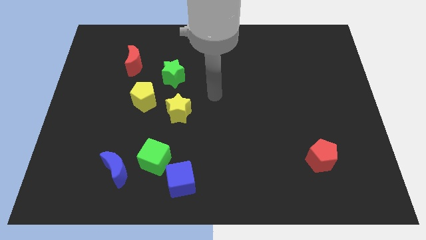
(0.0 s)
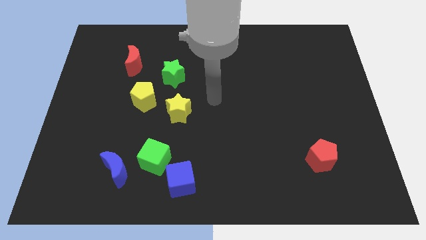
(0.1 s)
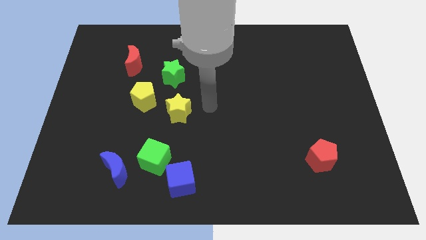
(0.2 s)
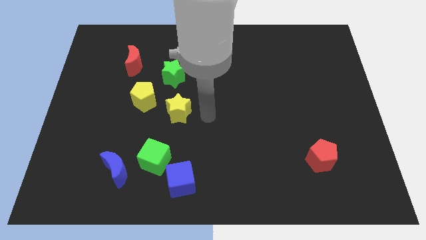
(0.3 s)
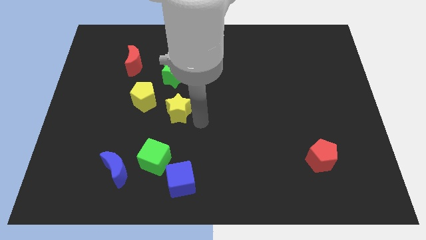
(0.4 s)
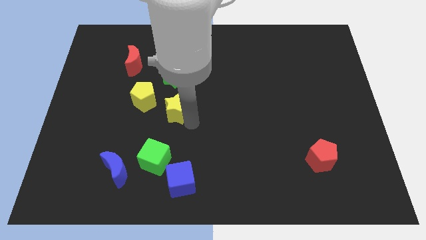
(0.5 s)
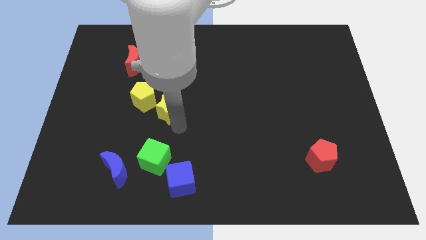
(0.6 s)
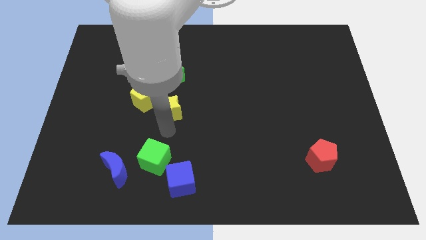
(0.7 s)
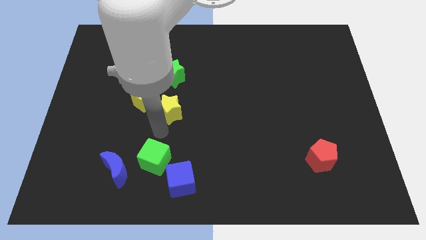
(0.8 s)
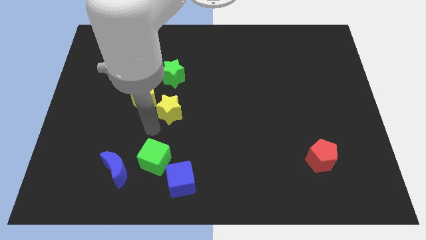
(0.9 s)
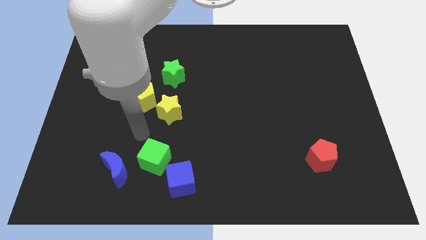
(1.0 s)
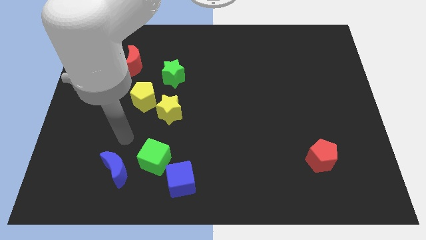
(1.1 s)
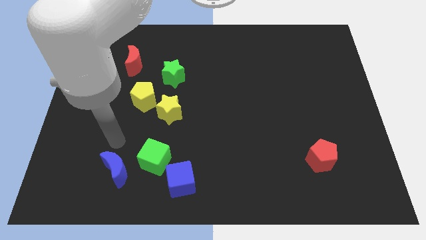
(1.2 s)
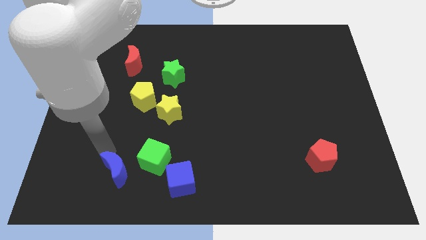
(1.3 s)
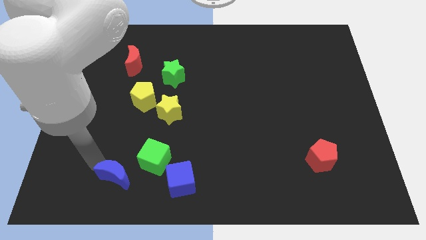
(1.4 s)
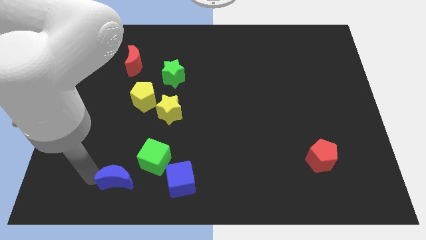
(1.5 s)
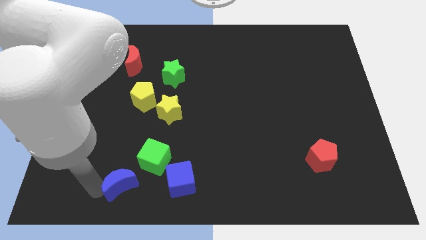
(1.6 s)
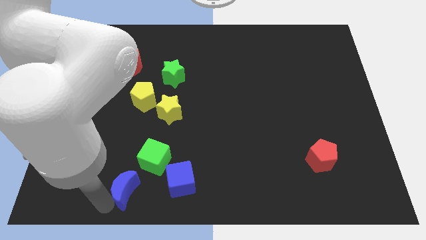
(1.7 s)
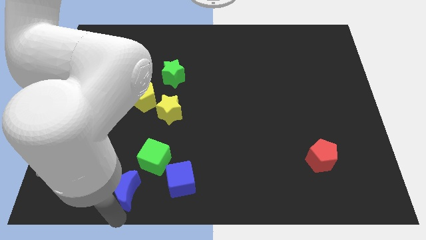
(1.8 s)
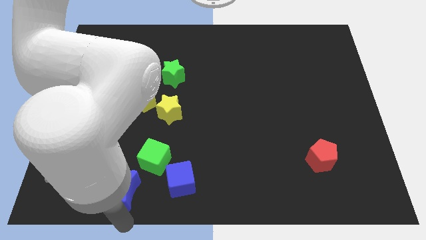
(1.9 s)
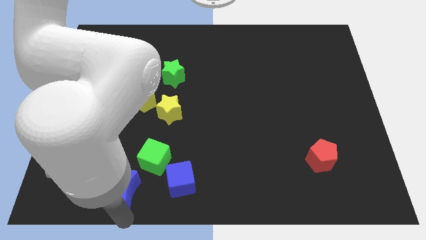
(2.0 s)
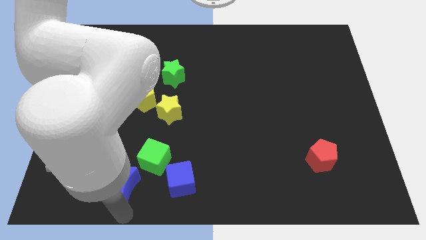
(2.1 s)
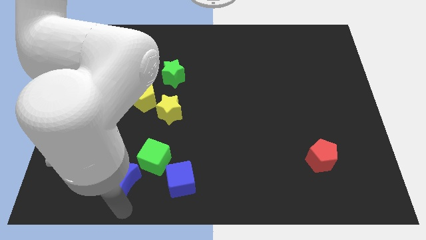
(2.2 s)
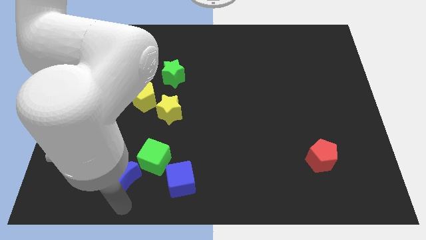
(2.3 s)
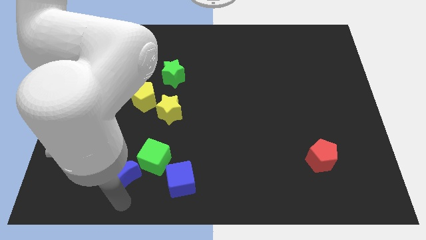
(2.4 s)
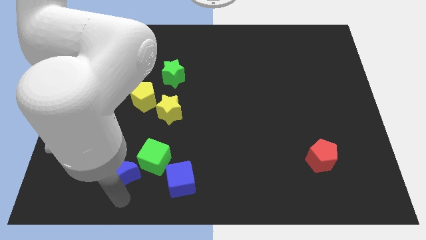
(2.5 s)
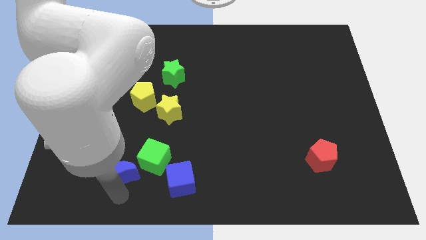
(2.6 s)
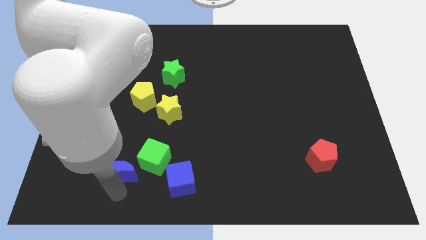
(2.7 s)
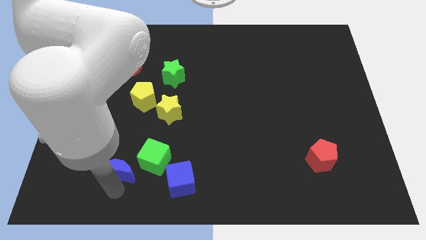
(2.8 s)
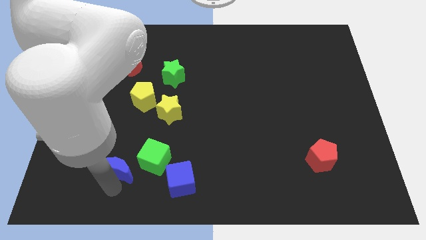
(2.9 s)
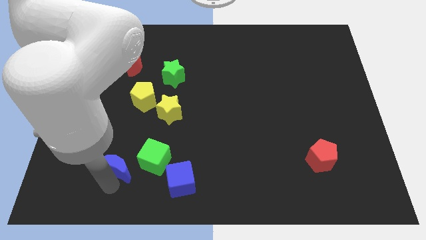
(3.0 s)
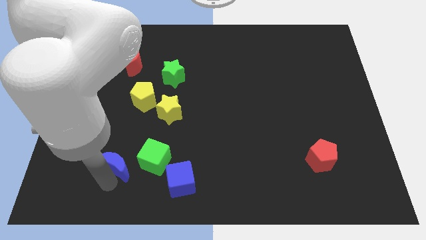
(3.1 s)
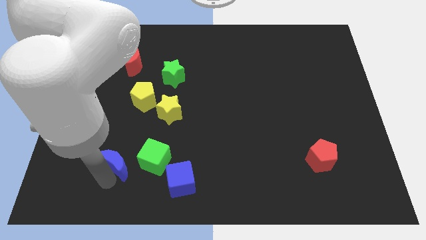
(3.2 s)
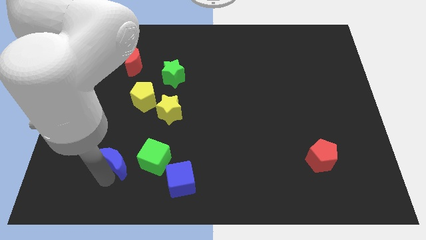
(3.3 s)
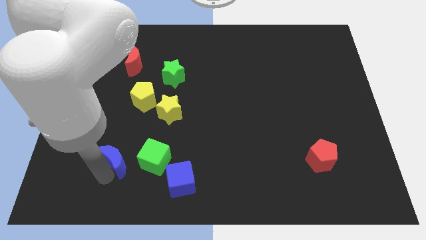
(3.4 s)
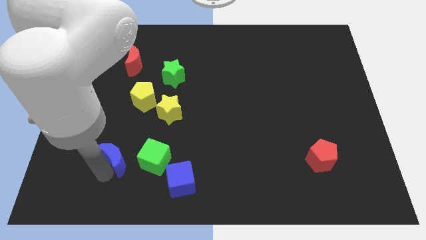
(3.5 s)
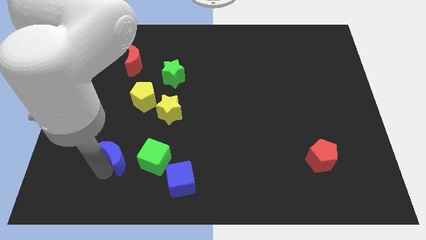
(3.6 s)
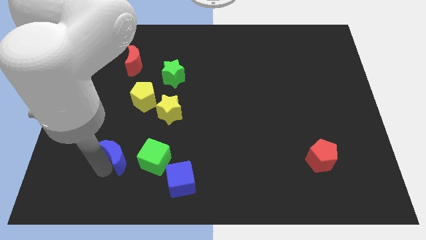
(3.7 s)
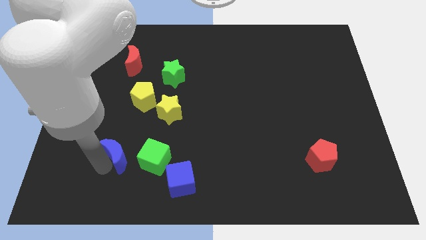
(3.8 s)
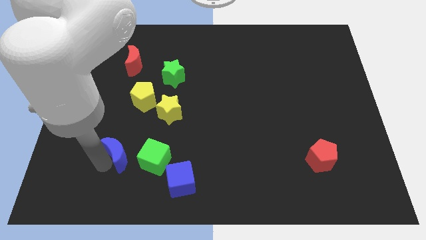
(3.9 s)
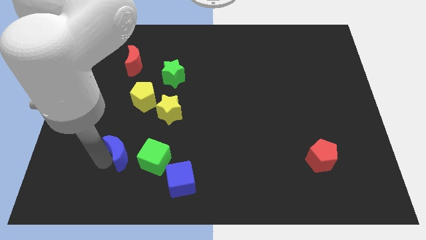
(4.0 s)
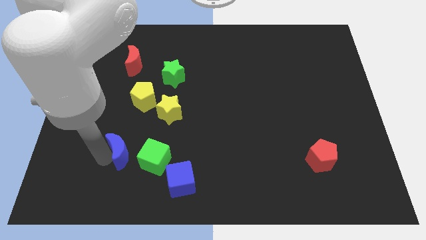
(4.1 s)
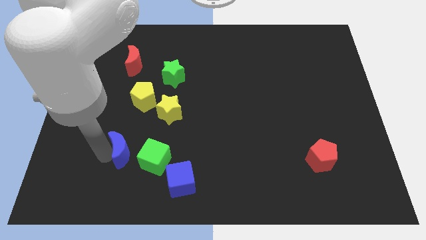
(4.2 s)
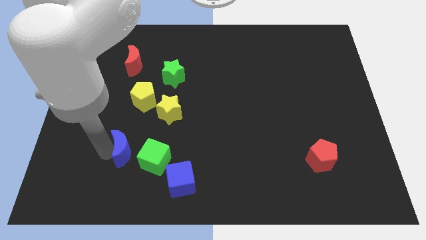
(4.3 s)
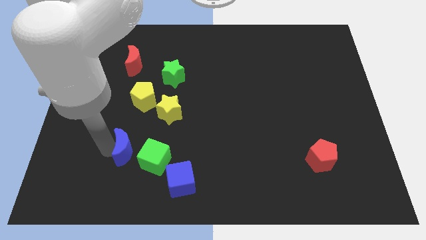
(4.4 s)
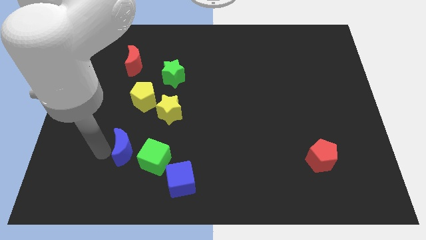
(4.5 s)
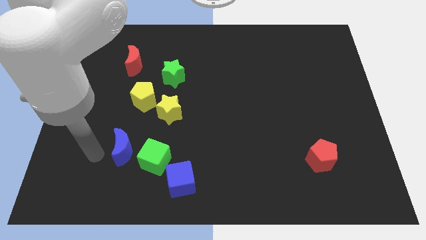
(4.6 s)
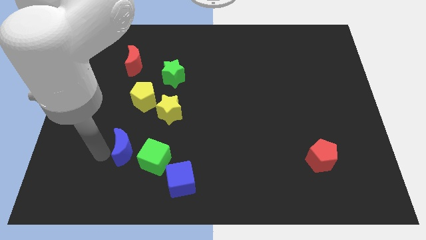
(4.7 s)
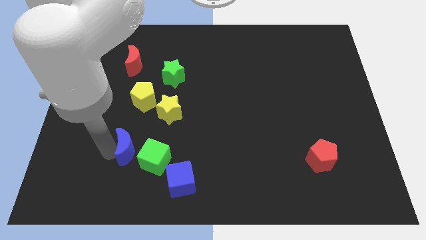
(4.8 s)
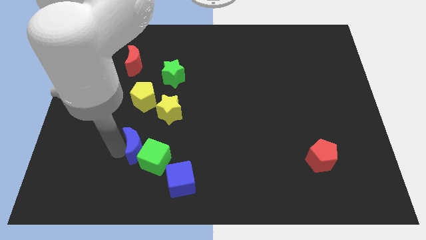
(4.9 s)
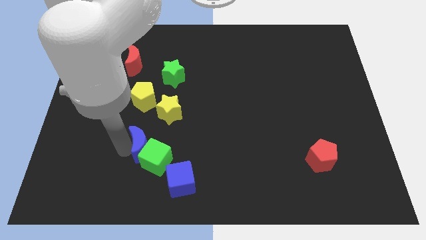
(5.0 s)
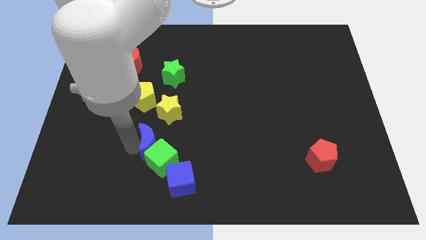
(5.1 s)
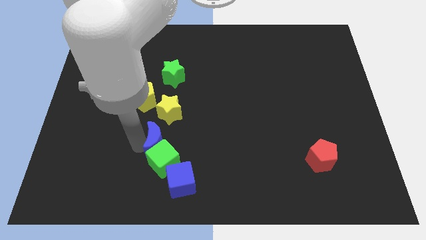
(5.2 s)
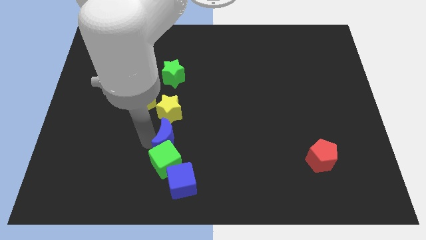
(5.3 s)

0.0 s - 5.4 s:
slide the blue moon right a little bit

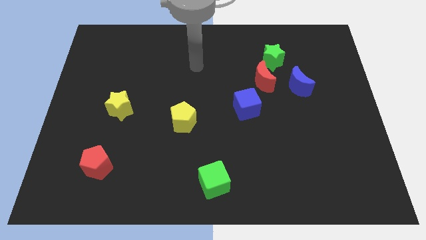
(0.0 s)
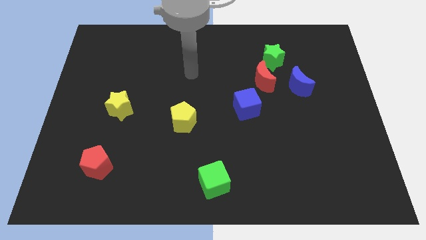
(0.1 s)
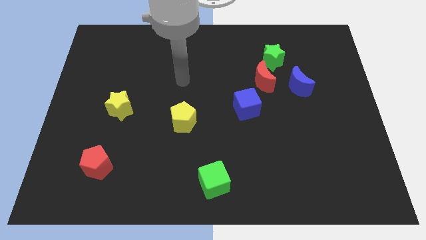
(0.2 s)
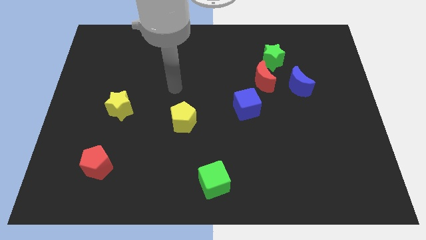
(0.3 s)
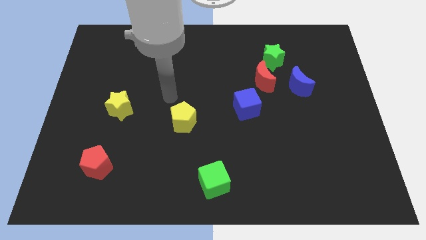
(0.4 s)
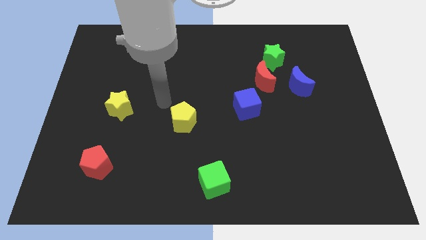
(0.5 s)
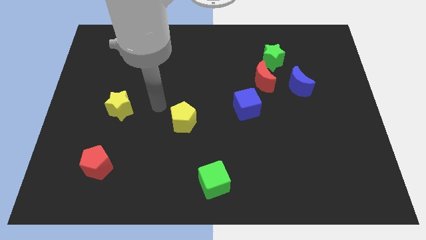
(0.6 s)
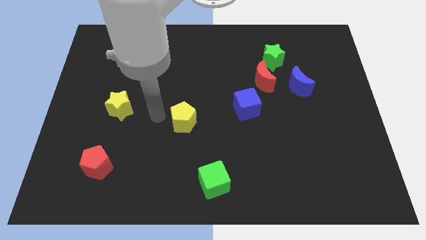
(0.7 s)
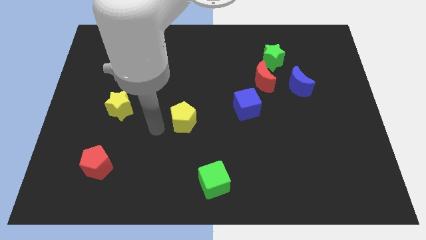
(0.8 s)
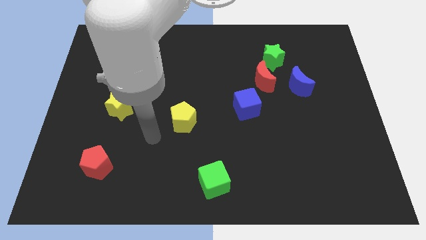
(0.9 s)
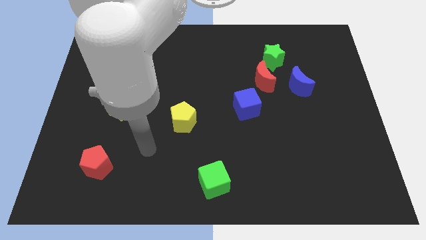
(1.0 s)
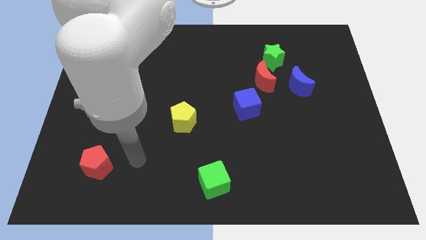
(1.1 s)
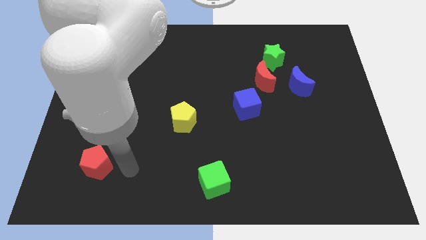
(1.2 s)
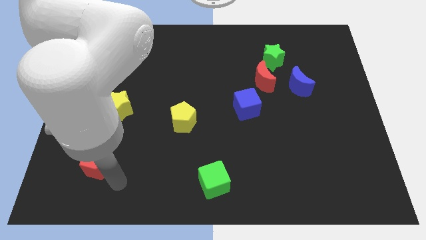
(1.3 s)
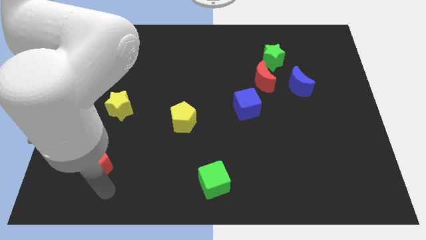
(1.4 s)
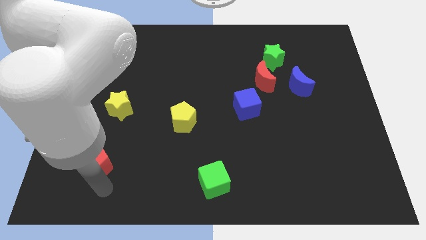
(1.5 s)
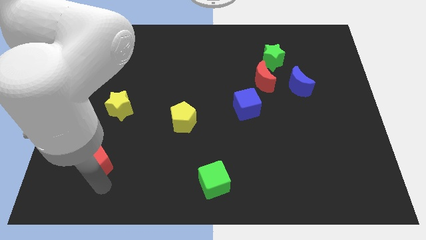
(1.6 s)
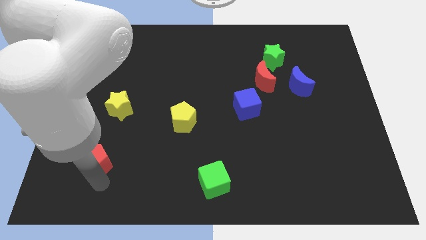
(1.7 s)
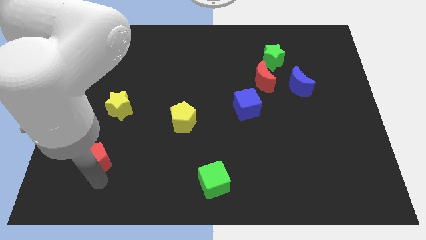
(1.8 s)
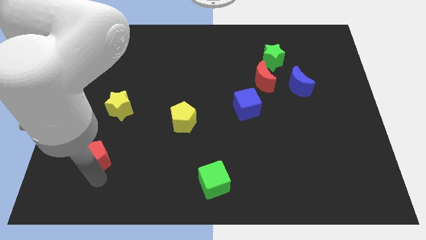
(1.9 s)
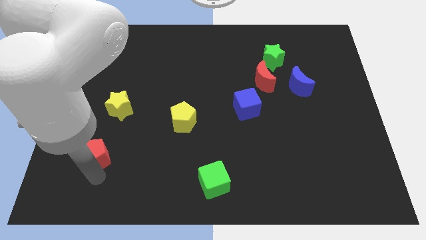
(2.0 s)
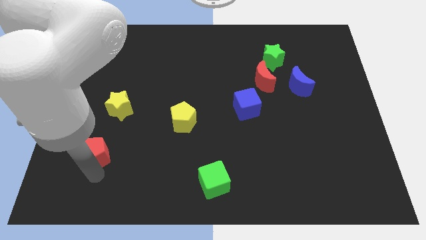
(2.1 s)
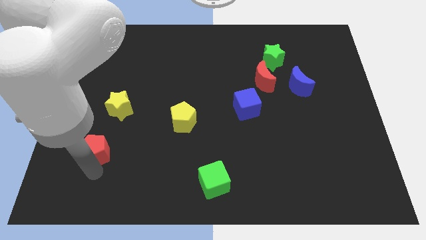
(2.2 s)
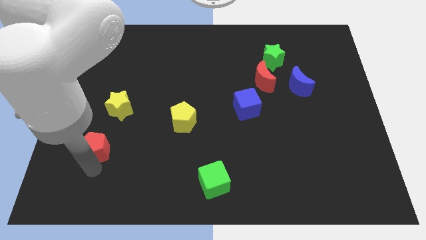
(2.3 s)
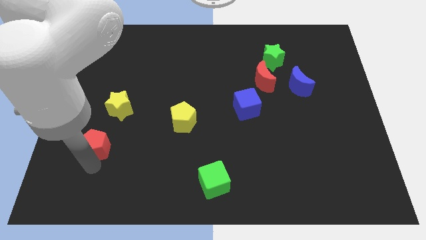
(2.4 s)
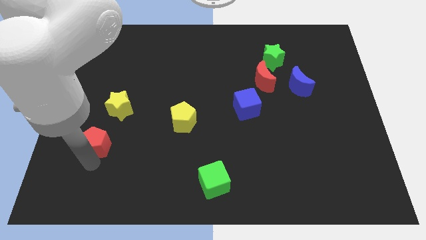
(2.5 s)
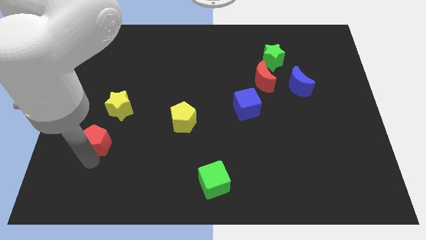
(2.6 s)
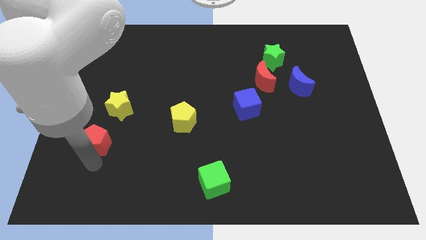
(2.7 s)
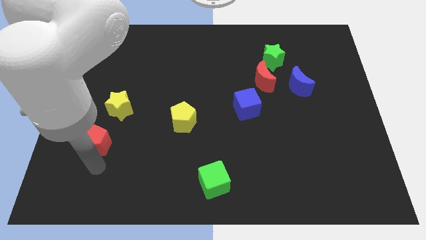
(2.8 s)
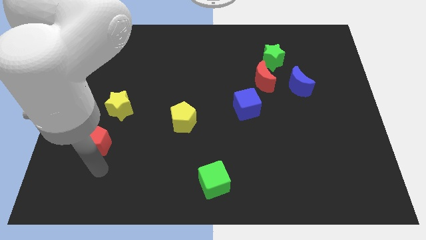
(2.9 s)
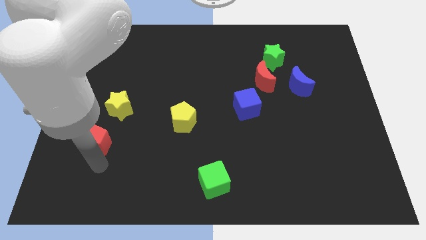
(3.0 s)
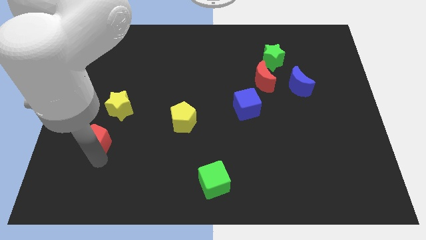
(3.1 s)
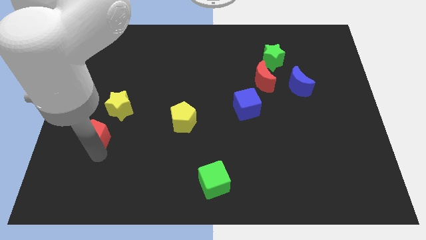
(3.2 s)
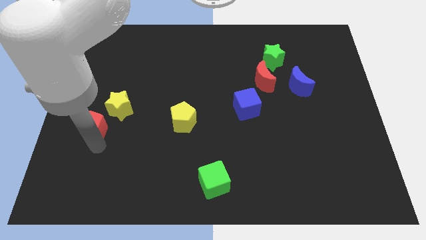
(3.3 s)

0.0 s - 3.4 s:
slide the red pentagon a little bit up
